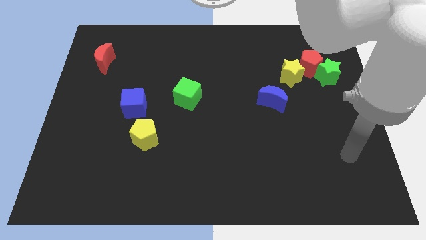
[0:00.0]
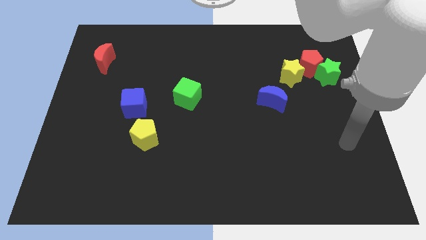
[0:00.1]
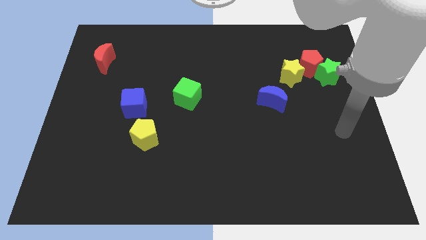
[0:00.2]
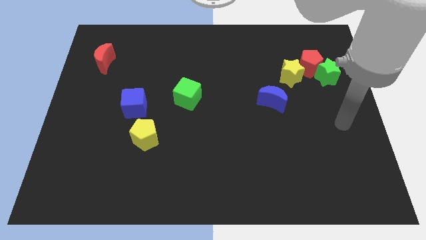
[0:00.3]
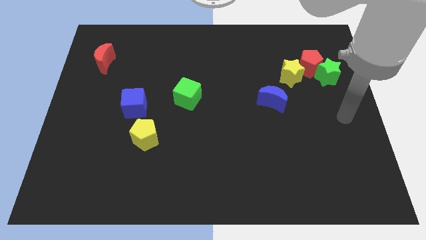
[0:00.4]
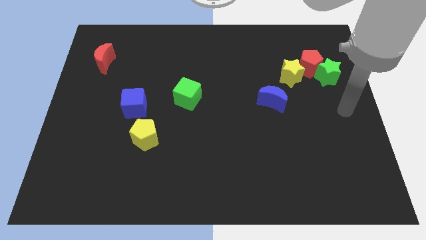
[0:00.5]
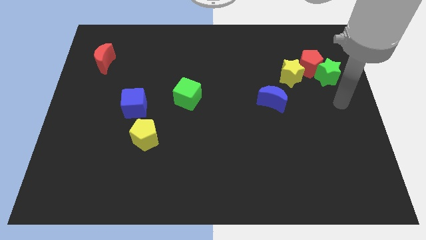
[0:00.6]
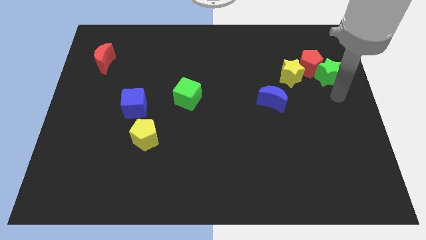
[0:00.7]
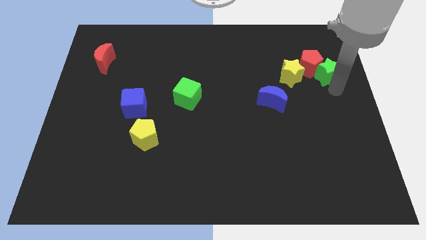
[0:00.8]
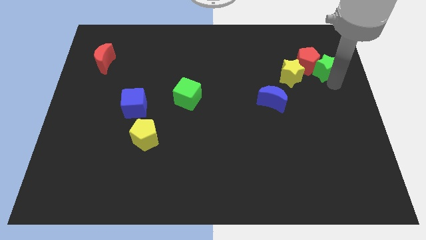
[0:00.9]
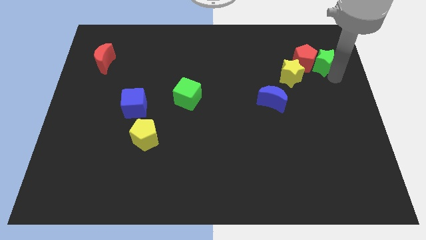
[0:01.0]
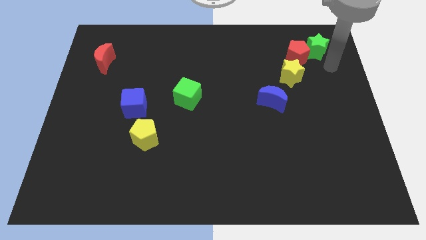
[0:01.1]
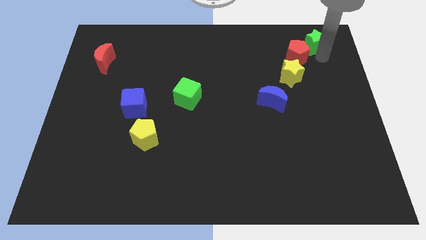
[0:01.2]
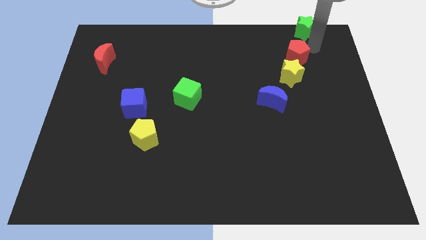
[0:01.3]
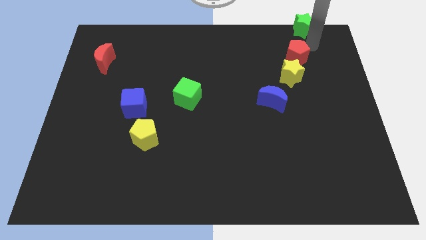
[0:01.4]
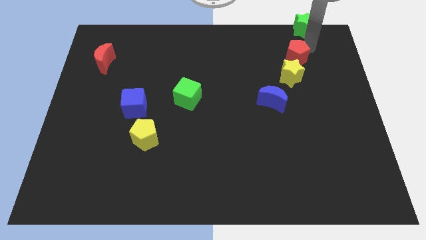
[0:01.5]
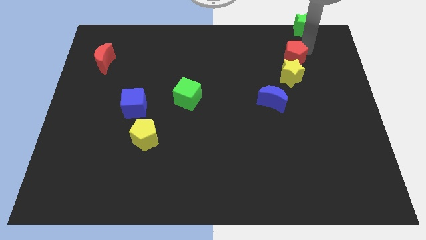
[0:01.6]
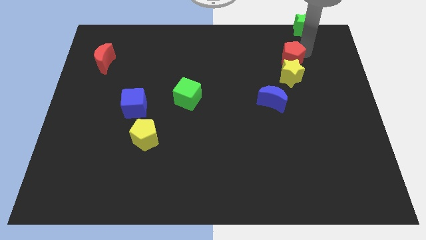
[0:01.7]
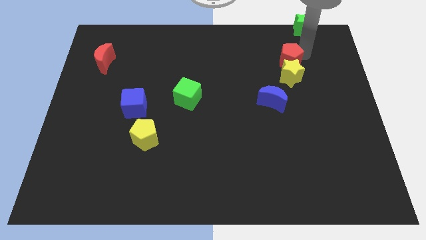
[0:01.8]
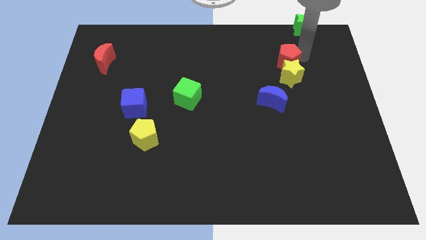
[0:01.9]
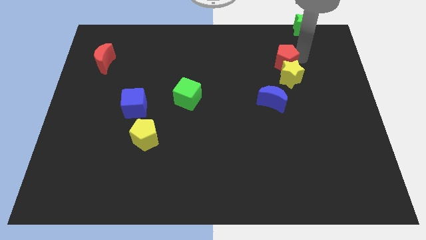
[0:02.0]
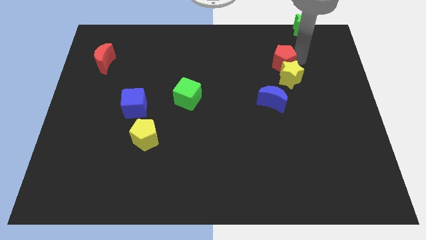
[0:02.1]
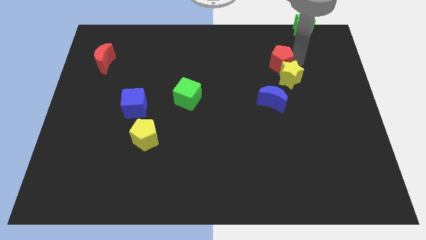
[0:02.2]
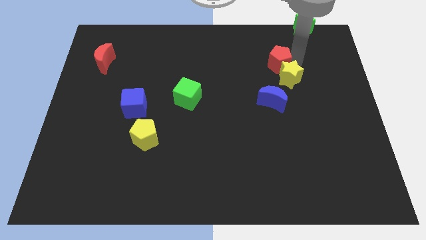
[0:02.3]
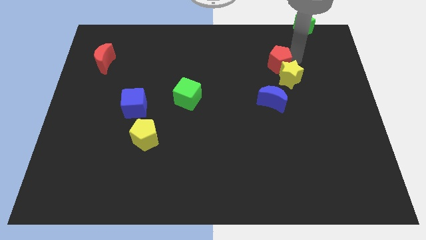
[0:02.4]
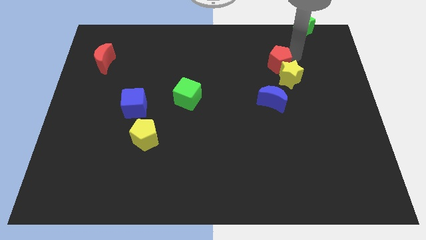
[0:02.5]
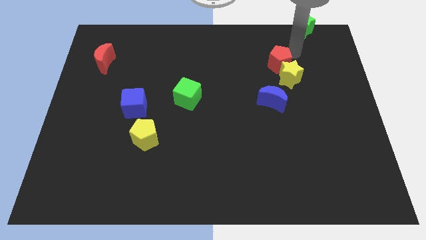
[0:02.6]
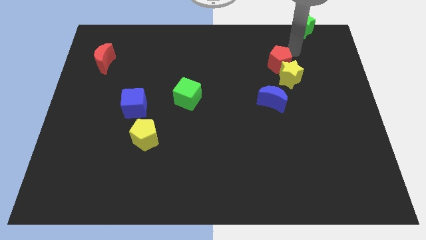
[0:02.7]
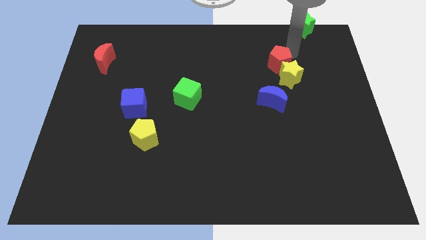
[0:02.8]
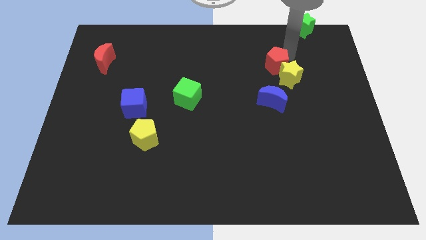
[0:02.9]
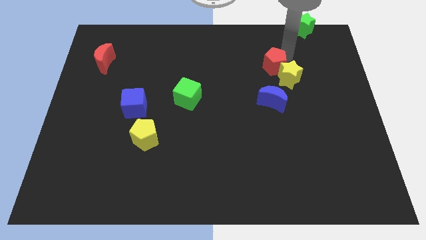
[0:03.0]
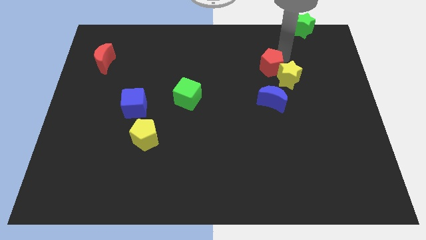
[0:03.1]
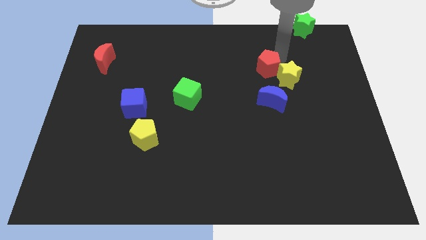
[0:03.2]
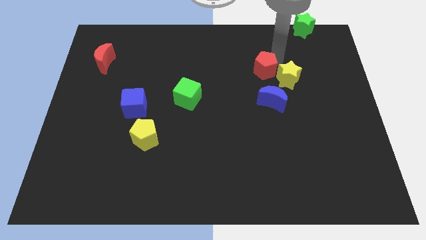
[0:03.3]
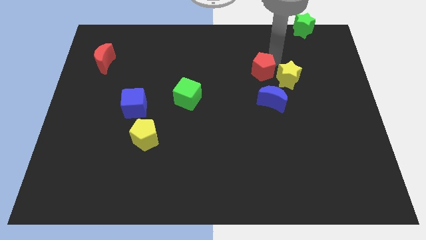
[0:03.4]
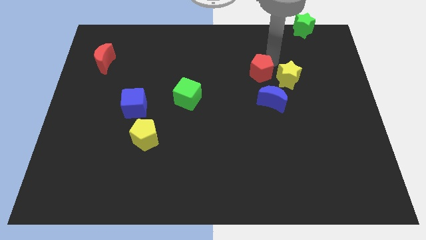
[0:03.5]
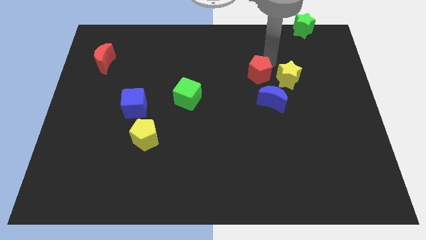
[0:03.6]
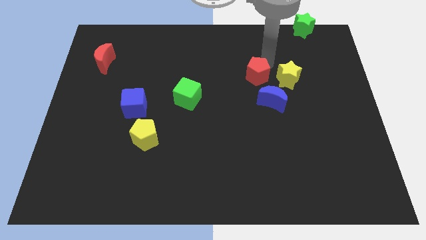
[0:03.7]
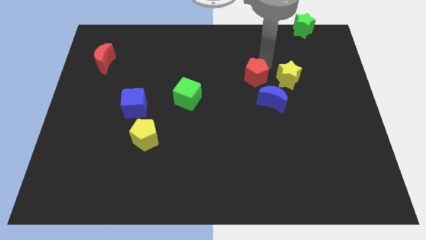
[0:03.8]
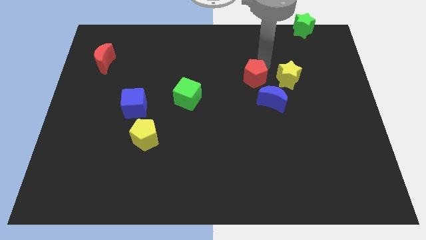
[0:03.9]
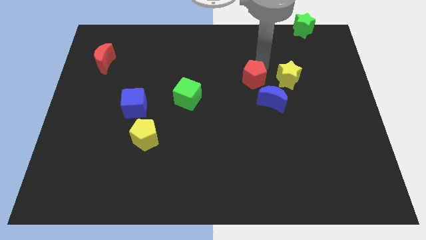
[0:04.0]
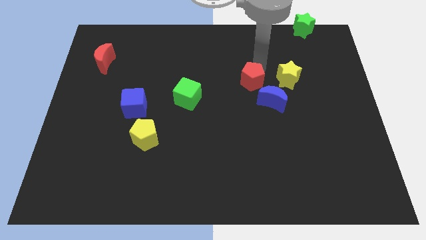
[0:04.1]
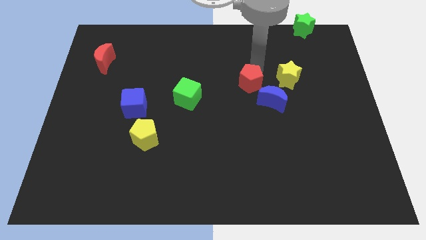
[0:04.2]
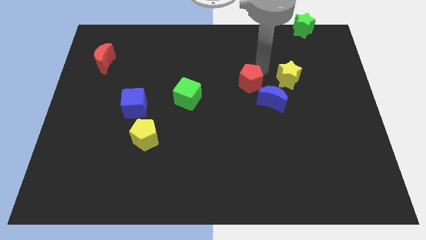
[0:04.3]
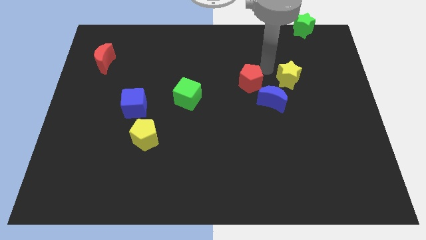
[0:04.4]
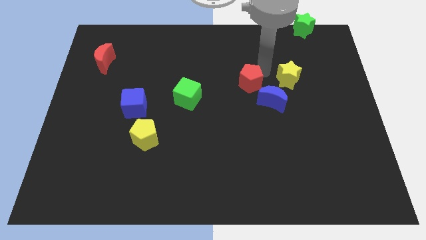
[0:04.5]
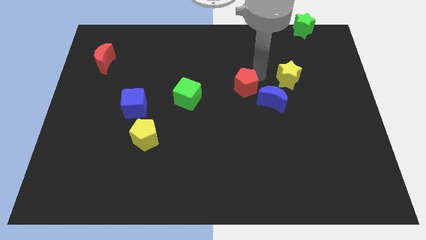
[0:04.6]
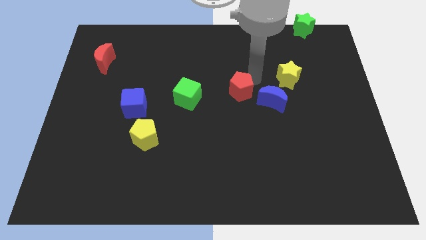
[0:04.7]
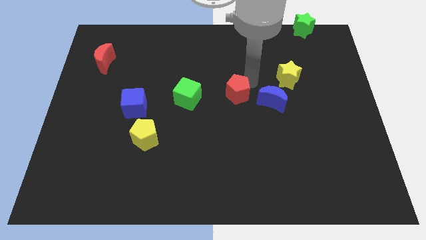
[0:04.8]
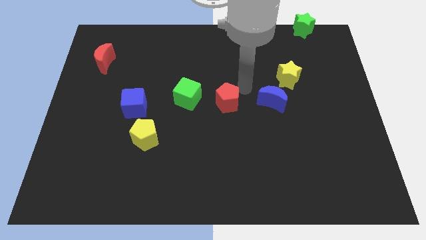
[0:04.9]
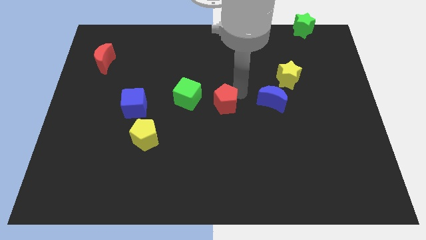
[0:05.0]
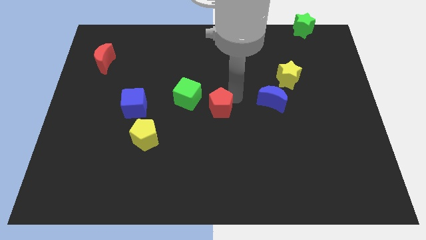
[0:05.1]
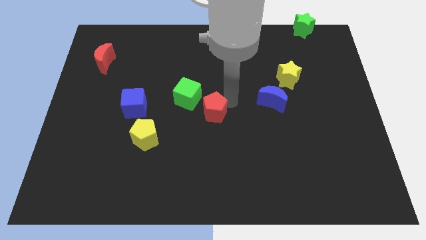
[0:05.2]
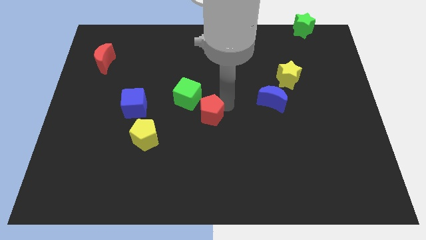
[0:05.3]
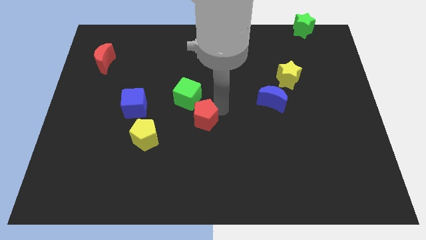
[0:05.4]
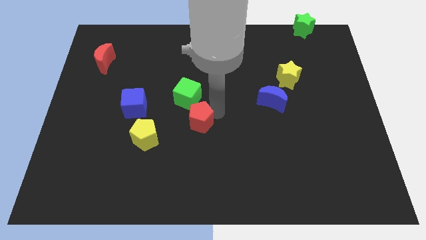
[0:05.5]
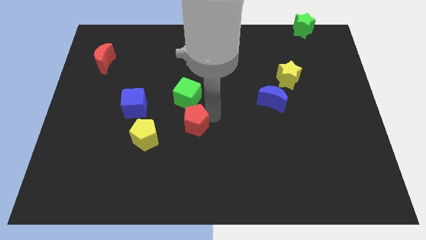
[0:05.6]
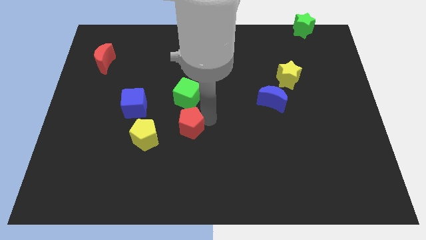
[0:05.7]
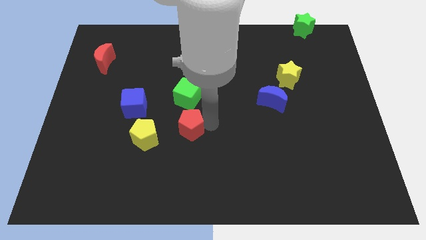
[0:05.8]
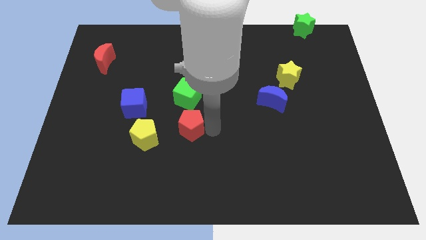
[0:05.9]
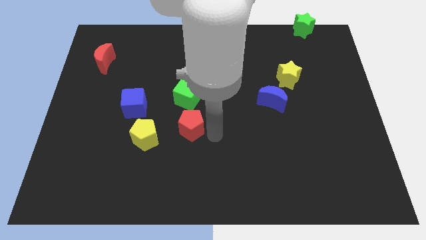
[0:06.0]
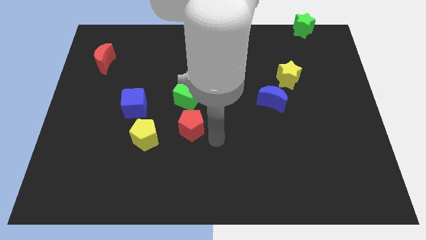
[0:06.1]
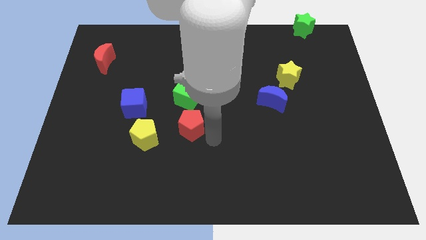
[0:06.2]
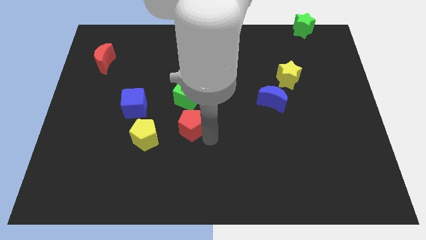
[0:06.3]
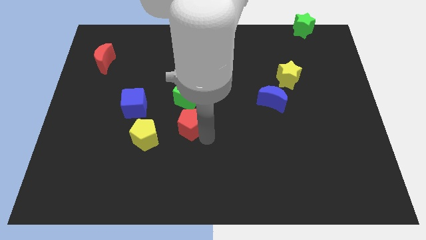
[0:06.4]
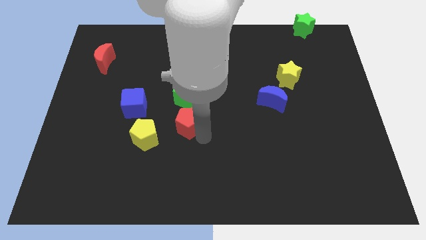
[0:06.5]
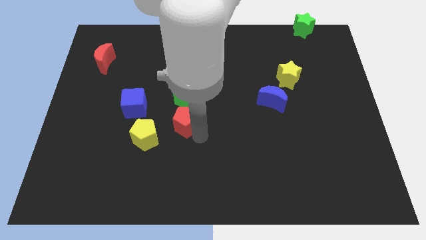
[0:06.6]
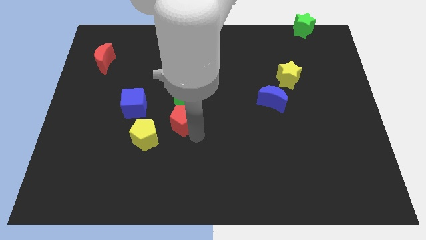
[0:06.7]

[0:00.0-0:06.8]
move the red pentagon to the bottom left side of the green cube
